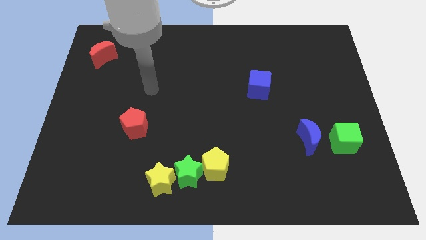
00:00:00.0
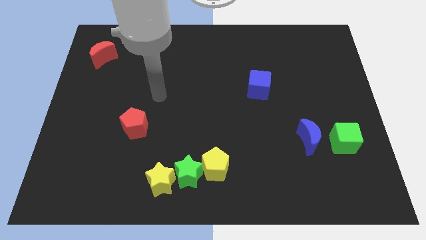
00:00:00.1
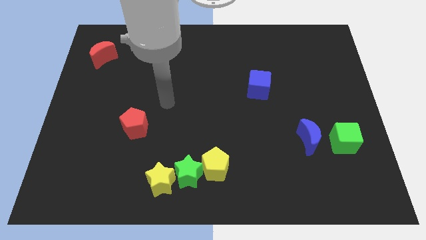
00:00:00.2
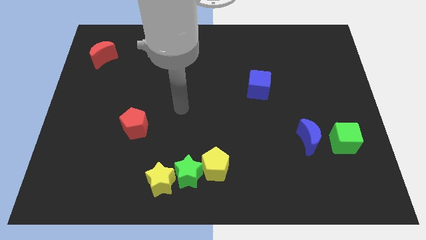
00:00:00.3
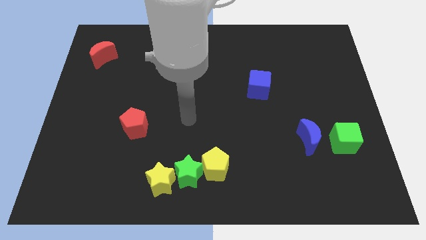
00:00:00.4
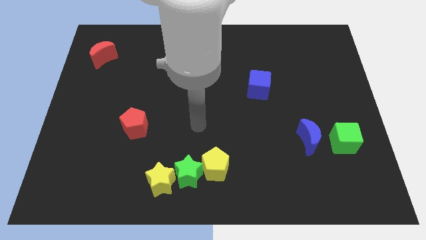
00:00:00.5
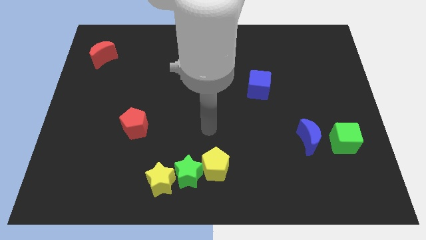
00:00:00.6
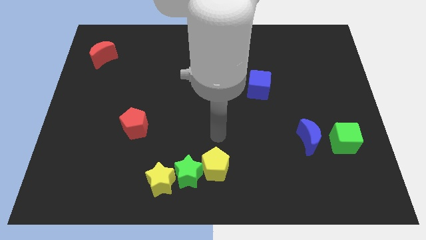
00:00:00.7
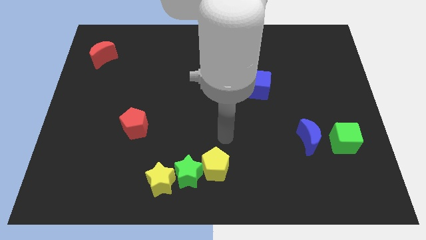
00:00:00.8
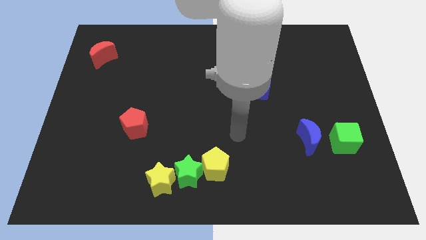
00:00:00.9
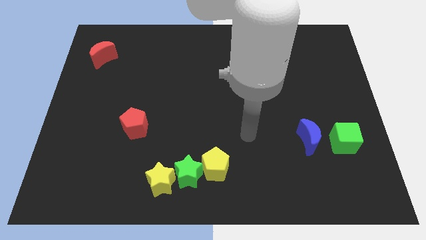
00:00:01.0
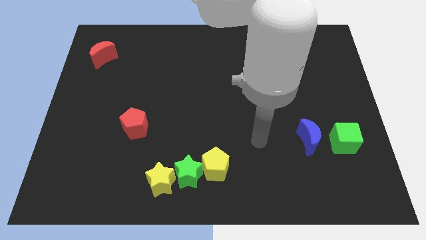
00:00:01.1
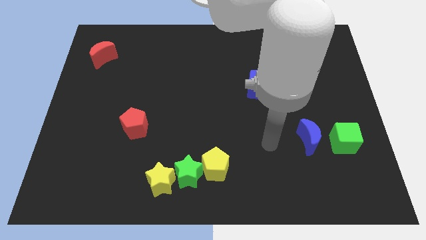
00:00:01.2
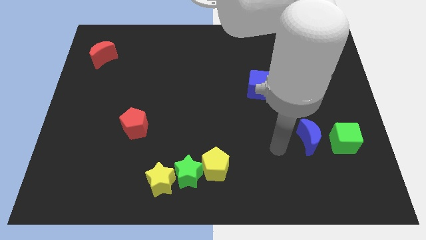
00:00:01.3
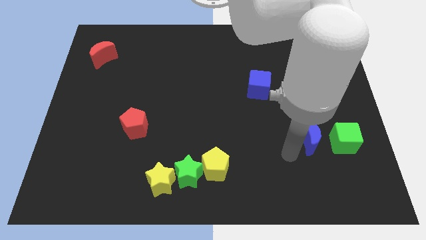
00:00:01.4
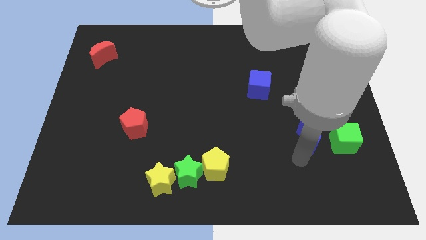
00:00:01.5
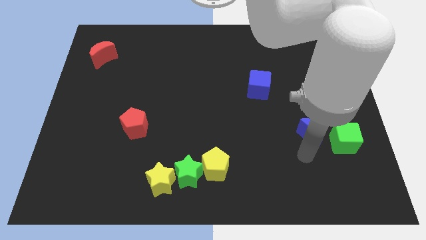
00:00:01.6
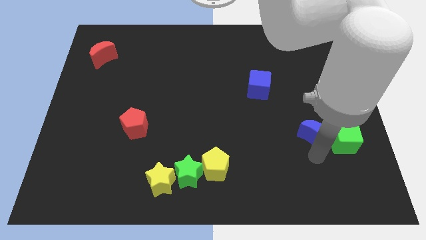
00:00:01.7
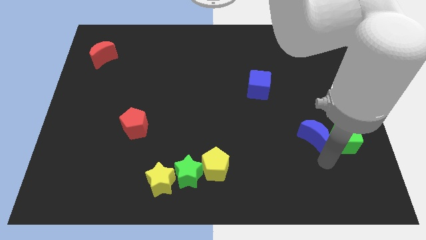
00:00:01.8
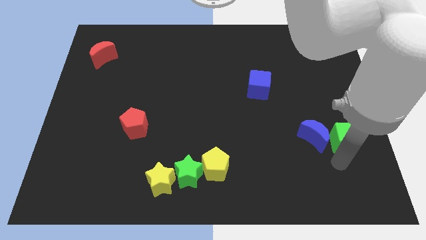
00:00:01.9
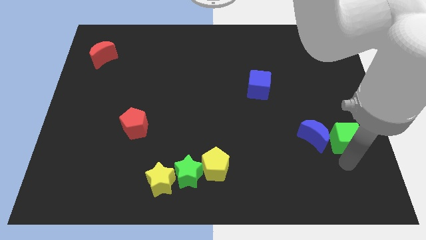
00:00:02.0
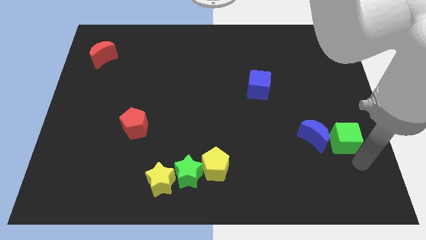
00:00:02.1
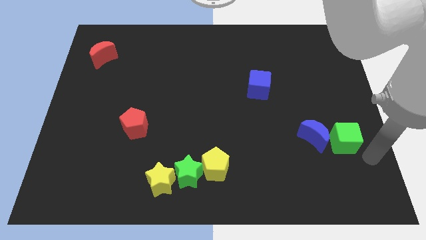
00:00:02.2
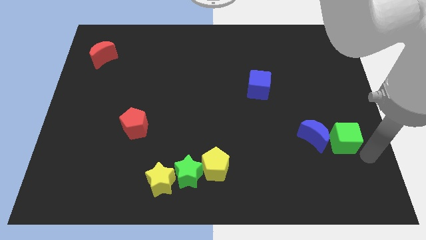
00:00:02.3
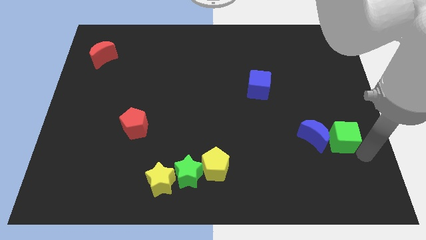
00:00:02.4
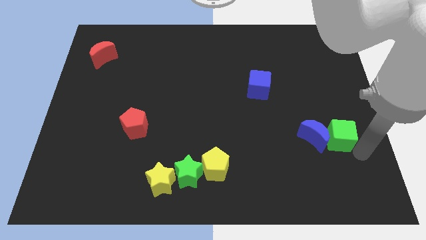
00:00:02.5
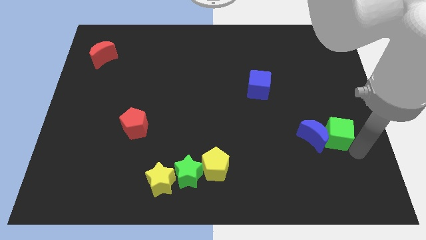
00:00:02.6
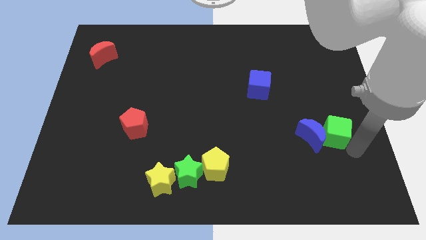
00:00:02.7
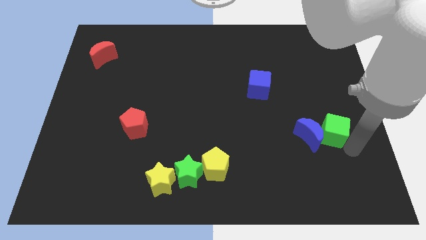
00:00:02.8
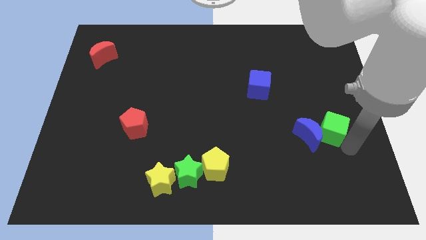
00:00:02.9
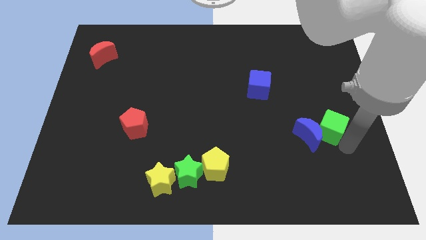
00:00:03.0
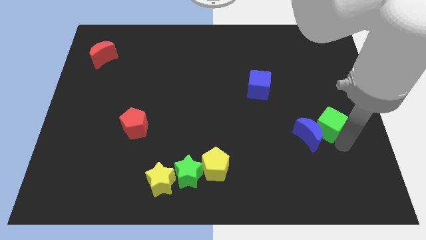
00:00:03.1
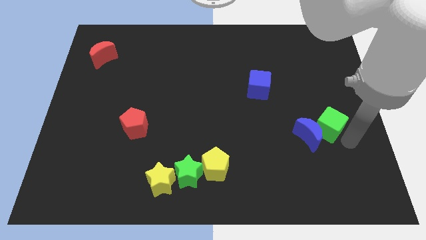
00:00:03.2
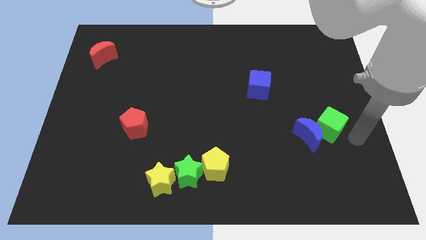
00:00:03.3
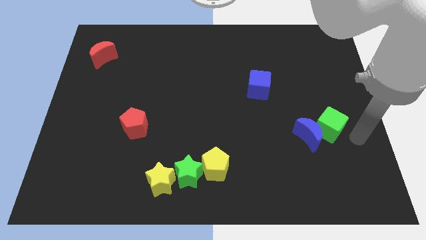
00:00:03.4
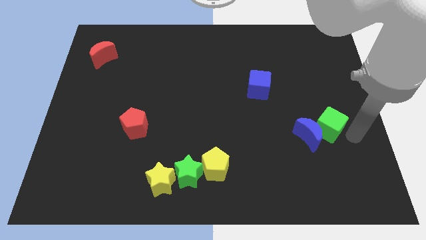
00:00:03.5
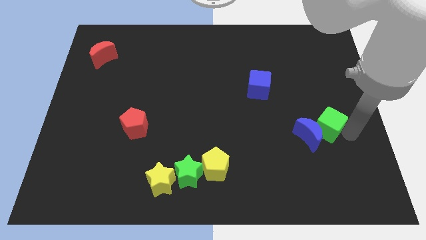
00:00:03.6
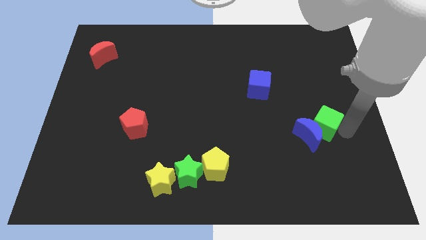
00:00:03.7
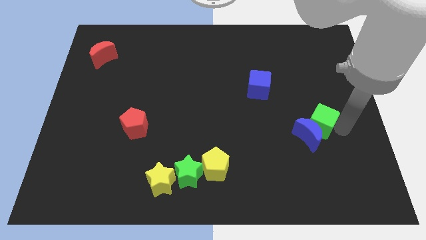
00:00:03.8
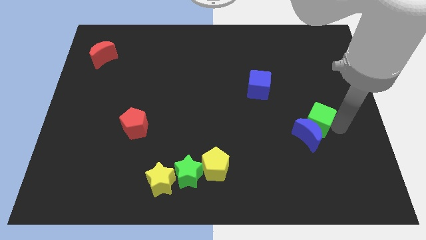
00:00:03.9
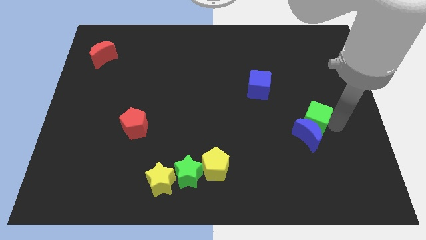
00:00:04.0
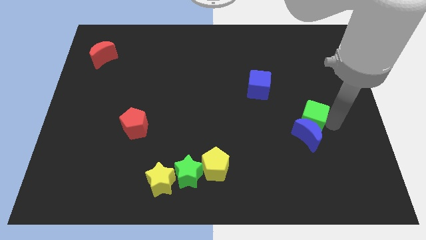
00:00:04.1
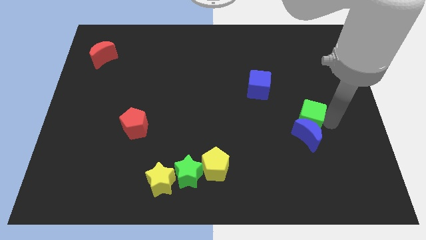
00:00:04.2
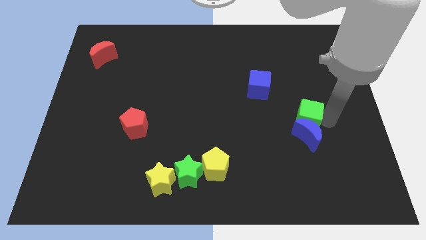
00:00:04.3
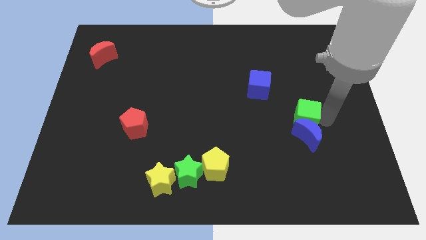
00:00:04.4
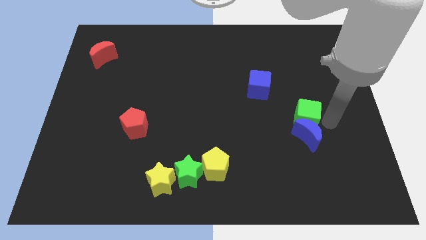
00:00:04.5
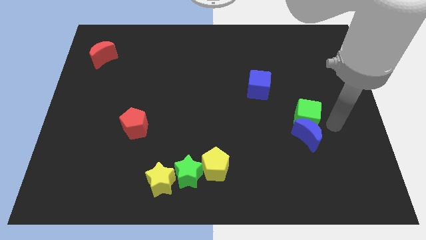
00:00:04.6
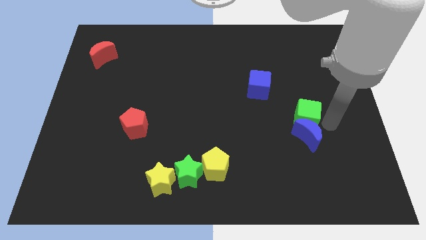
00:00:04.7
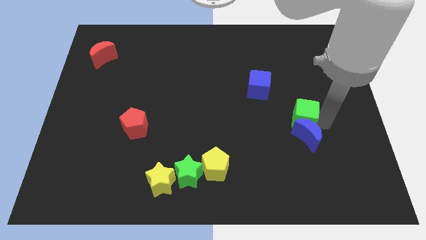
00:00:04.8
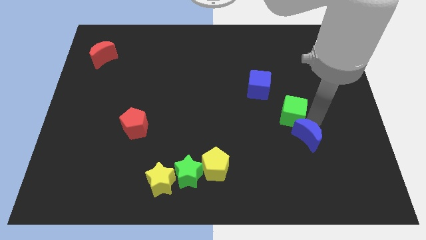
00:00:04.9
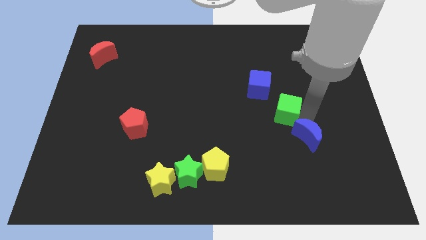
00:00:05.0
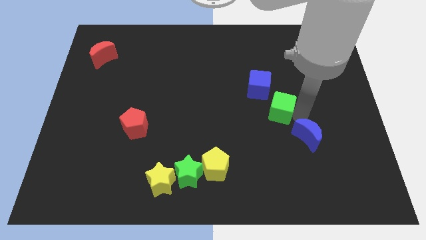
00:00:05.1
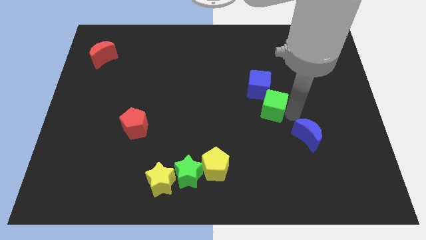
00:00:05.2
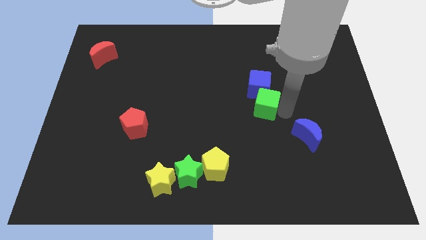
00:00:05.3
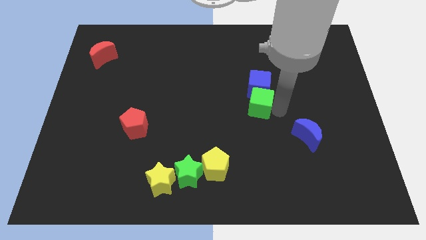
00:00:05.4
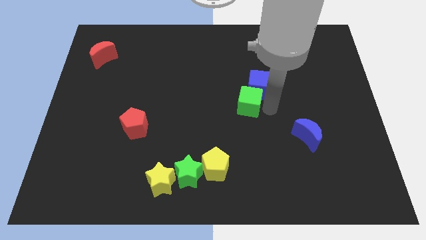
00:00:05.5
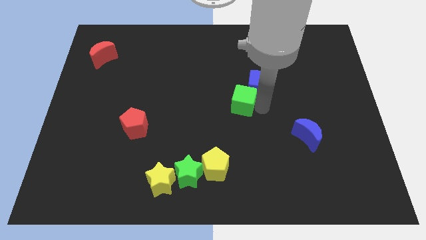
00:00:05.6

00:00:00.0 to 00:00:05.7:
put the green cube just left of the blue cube

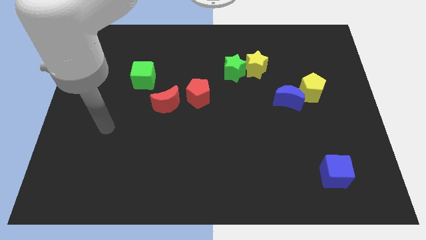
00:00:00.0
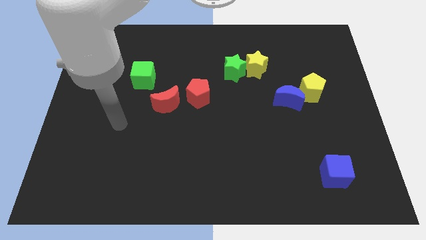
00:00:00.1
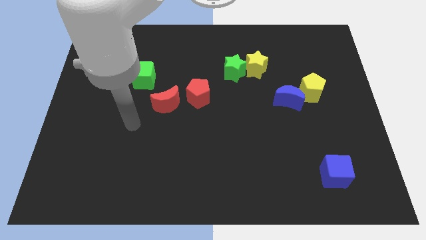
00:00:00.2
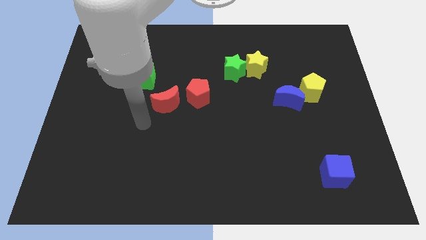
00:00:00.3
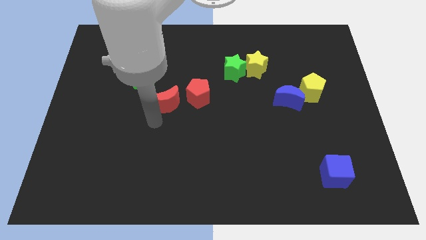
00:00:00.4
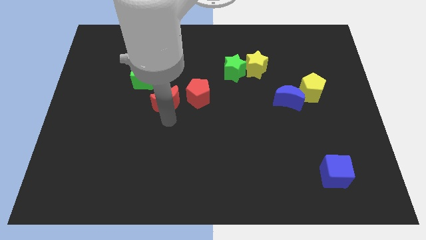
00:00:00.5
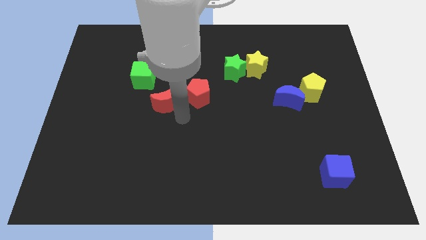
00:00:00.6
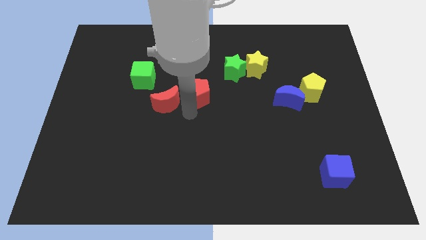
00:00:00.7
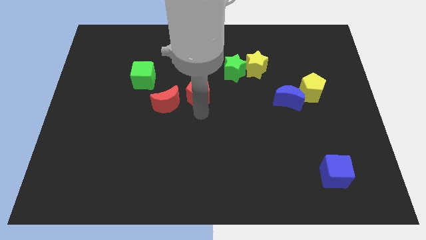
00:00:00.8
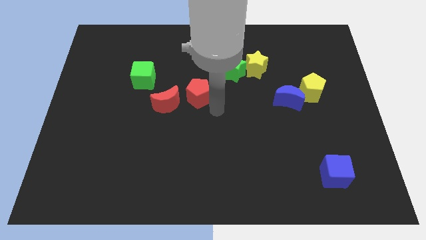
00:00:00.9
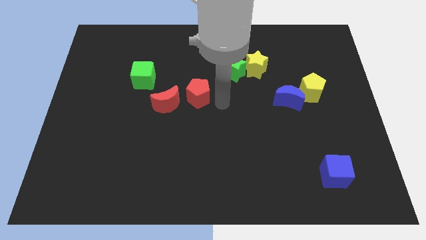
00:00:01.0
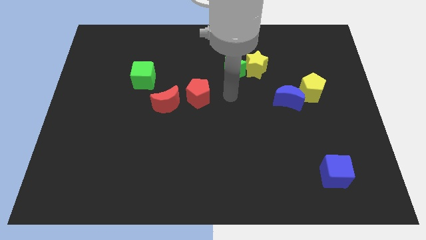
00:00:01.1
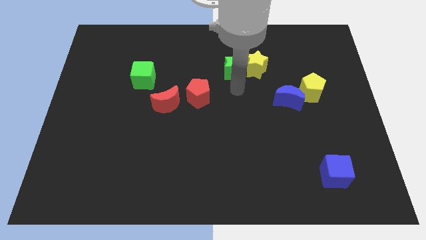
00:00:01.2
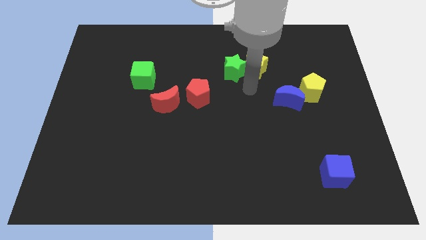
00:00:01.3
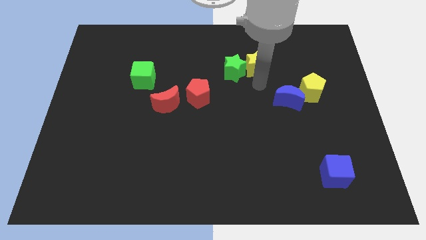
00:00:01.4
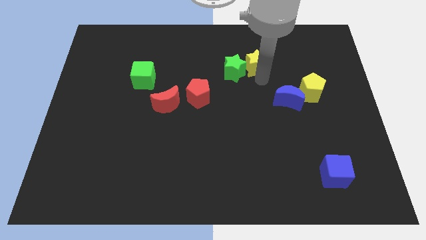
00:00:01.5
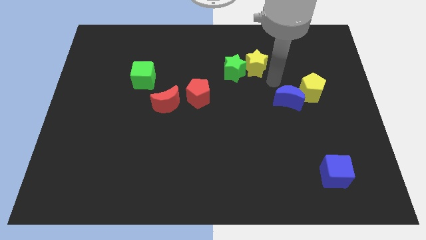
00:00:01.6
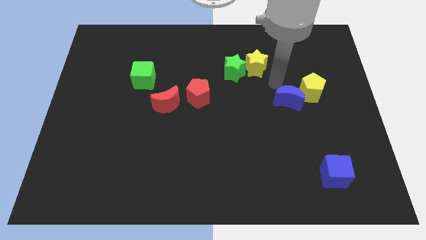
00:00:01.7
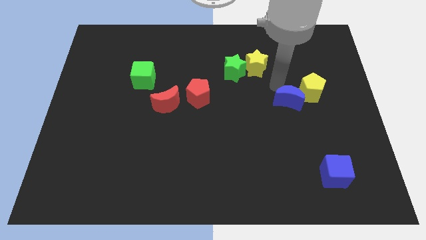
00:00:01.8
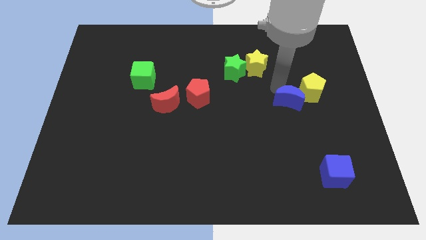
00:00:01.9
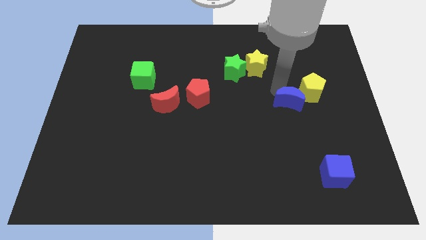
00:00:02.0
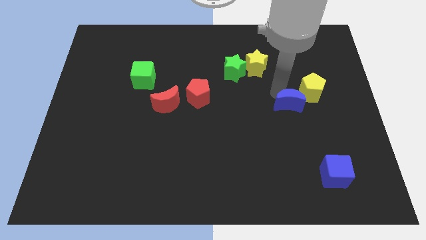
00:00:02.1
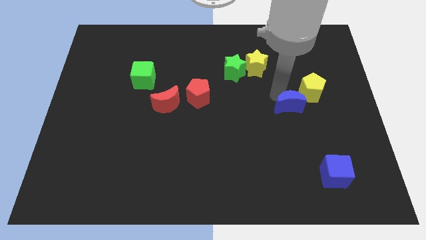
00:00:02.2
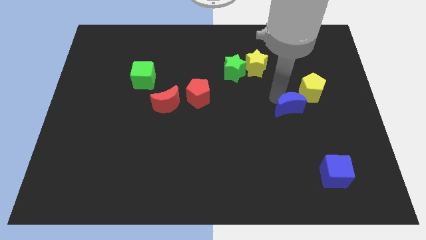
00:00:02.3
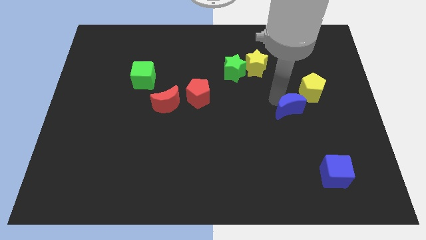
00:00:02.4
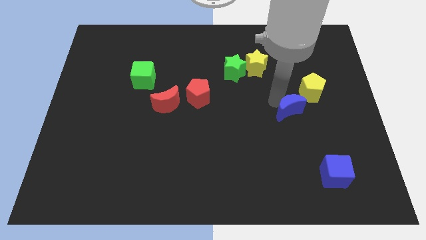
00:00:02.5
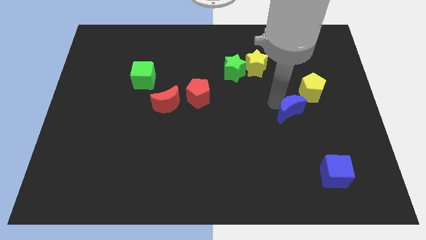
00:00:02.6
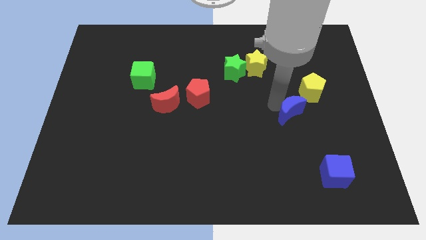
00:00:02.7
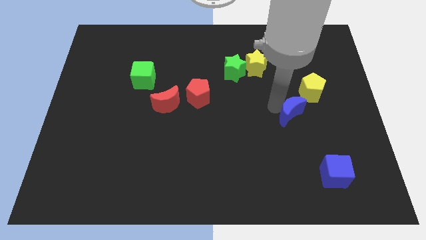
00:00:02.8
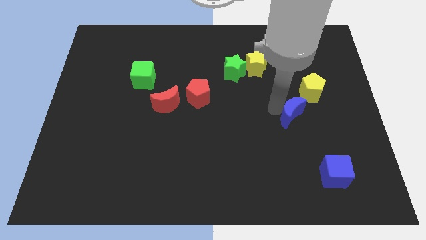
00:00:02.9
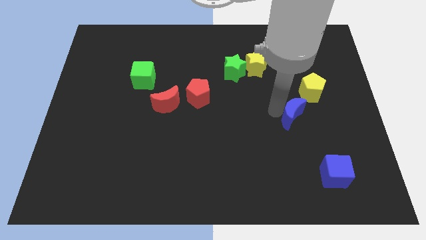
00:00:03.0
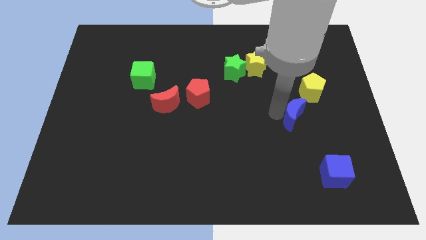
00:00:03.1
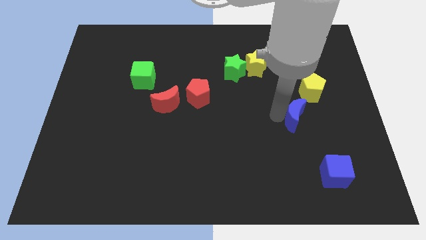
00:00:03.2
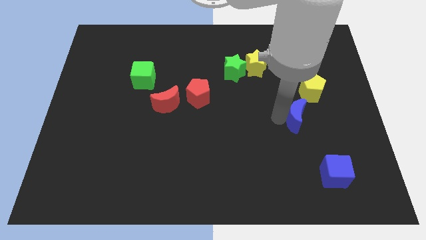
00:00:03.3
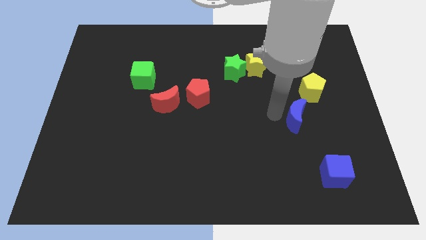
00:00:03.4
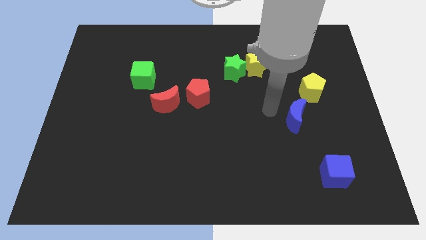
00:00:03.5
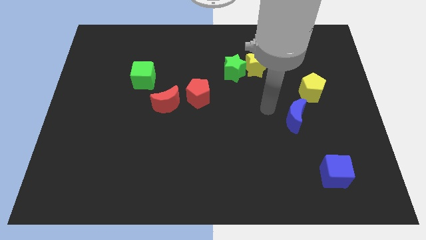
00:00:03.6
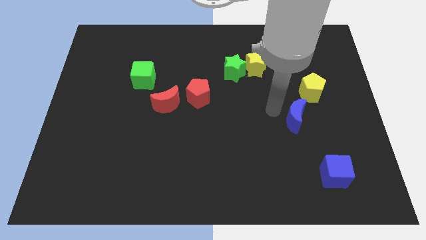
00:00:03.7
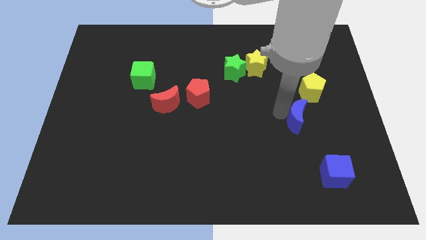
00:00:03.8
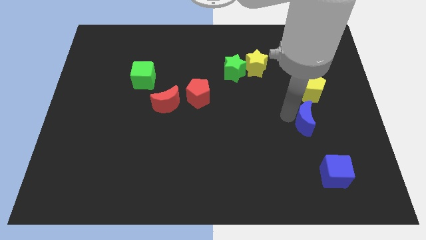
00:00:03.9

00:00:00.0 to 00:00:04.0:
slide the blue moon to the bottom of the yellow pentagon
